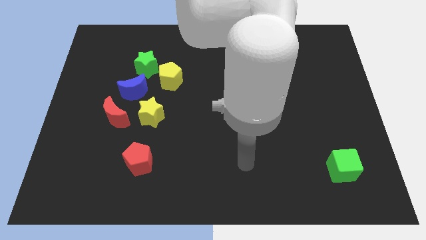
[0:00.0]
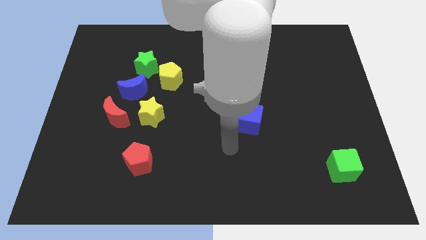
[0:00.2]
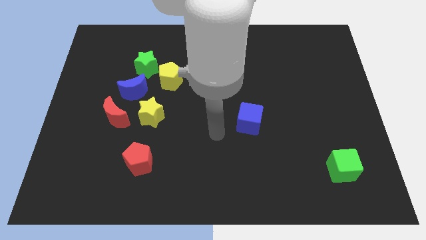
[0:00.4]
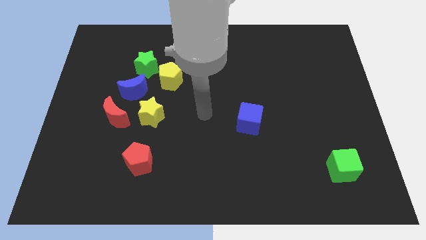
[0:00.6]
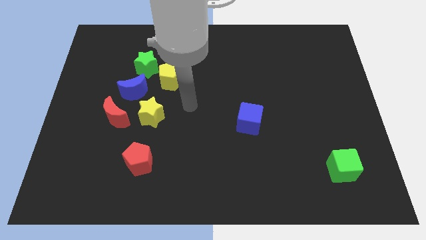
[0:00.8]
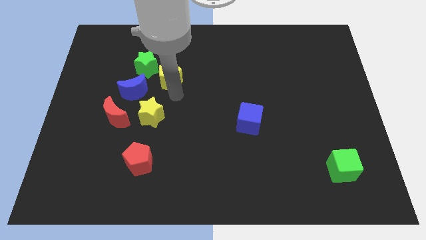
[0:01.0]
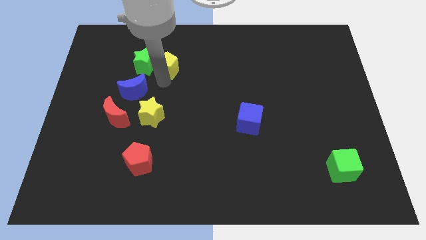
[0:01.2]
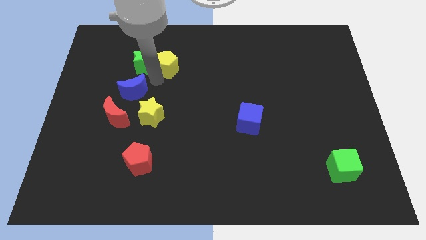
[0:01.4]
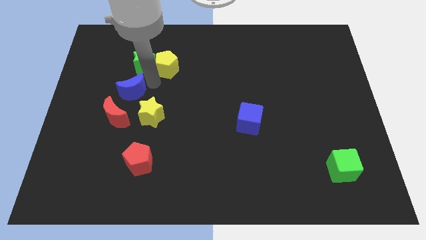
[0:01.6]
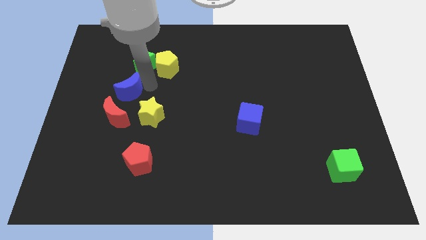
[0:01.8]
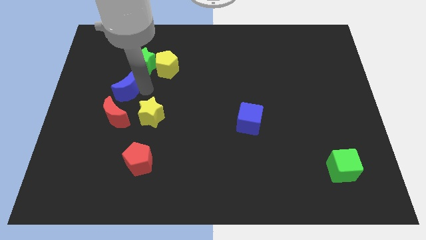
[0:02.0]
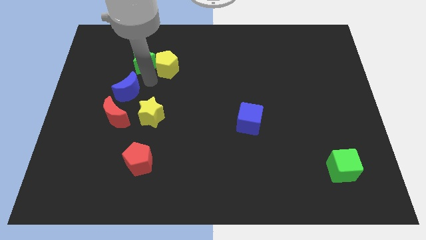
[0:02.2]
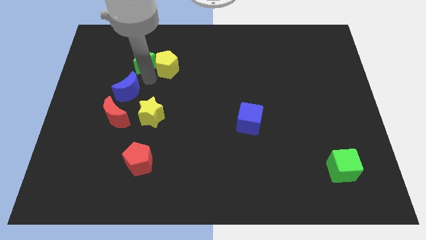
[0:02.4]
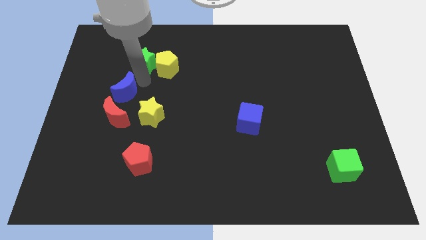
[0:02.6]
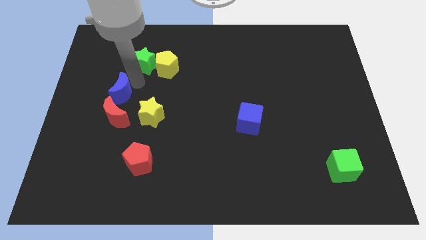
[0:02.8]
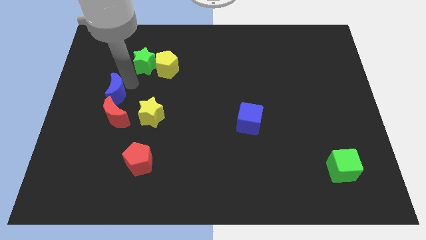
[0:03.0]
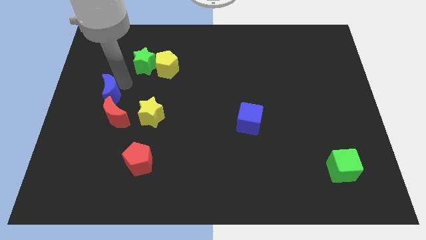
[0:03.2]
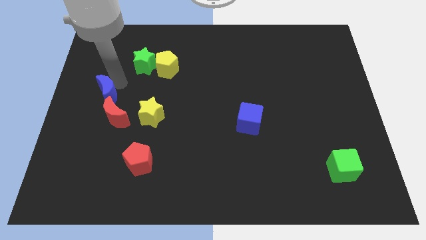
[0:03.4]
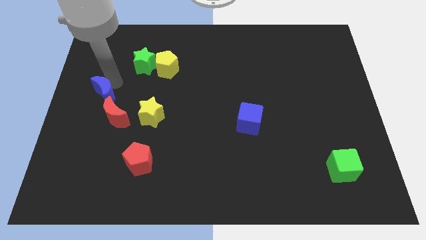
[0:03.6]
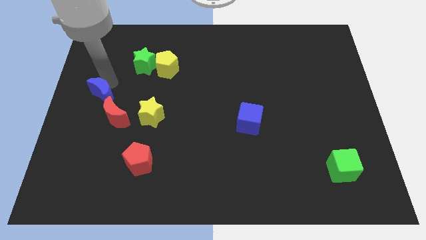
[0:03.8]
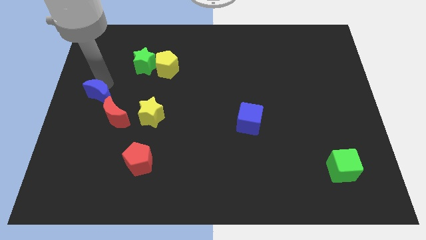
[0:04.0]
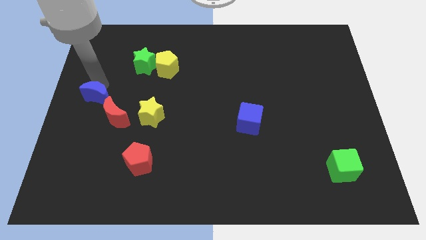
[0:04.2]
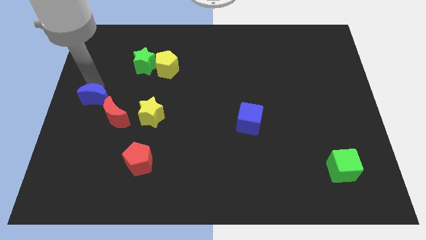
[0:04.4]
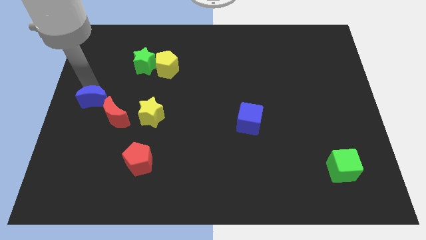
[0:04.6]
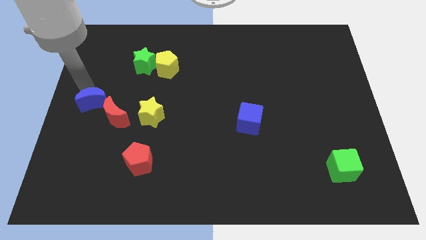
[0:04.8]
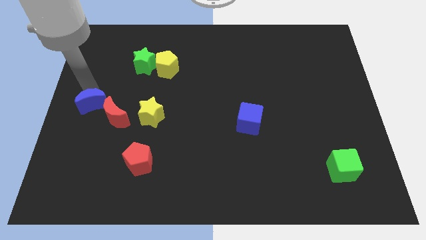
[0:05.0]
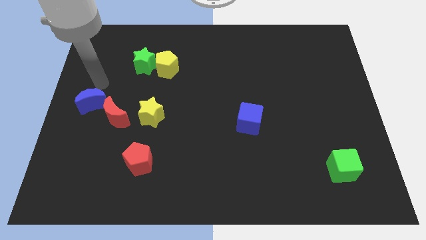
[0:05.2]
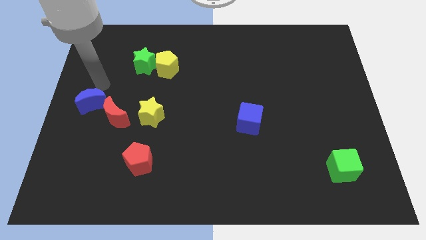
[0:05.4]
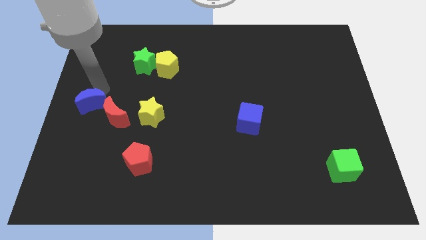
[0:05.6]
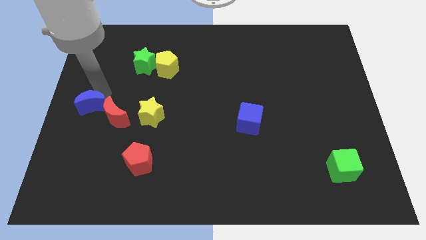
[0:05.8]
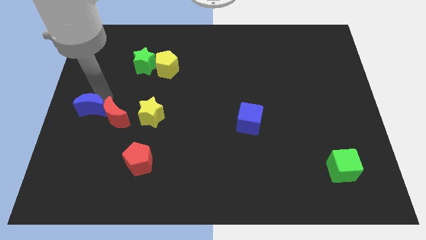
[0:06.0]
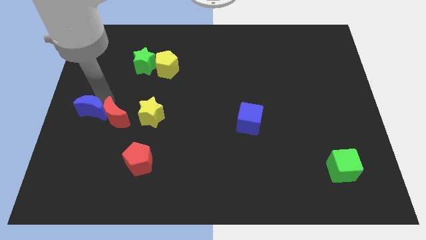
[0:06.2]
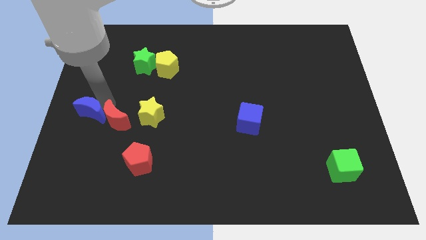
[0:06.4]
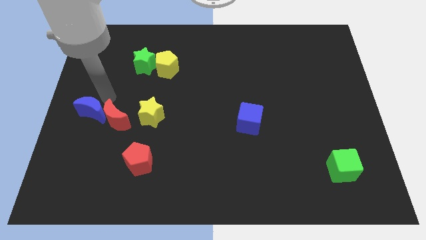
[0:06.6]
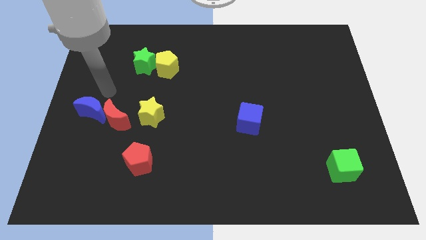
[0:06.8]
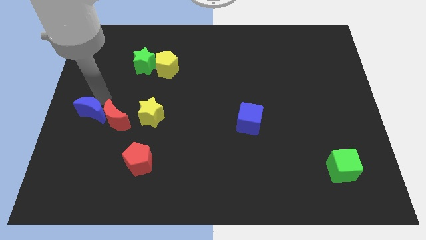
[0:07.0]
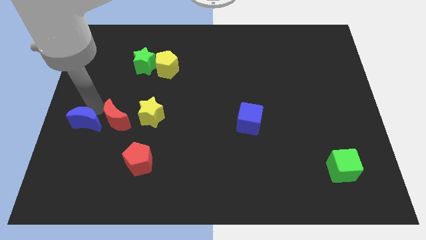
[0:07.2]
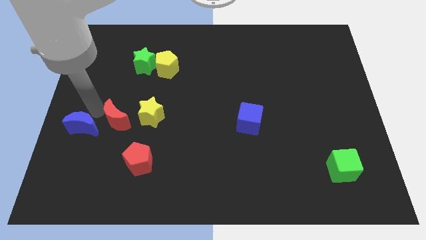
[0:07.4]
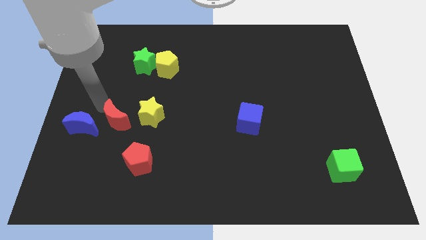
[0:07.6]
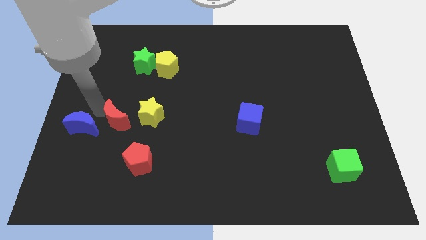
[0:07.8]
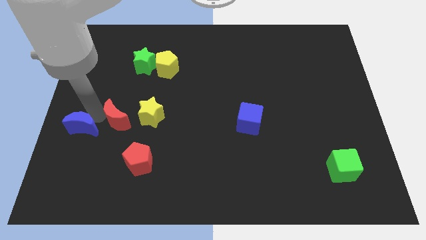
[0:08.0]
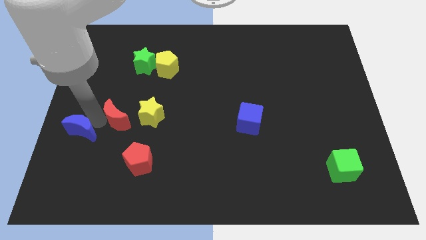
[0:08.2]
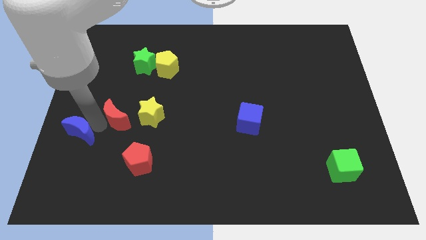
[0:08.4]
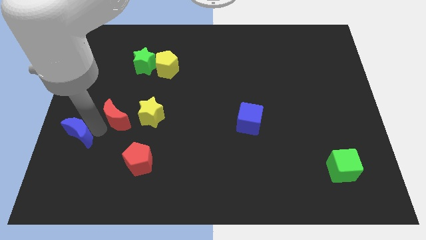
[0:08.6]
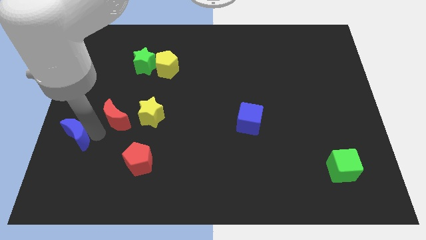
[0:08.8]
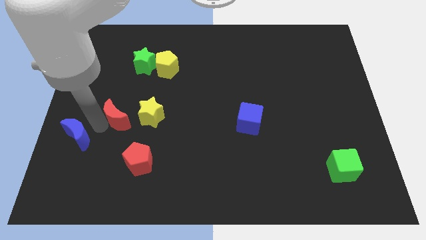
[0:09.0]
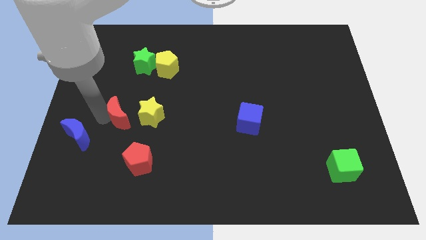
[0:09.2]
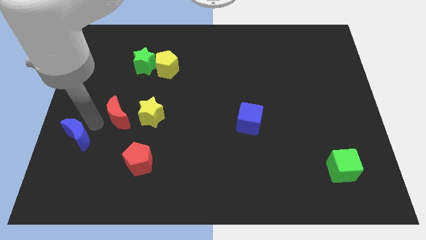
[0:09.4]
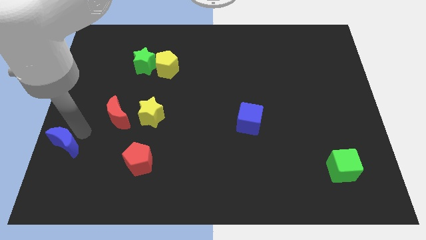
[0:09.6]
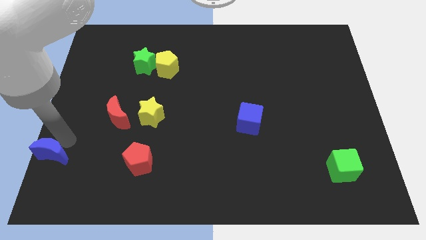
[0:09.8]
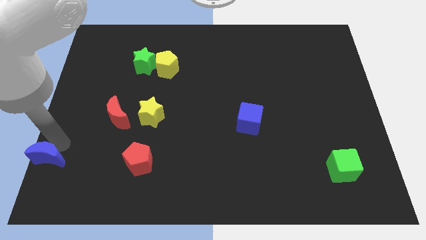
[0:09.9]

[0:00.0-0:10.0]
put the blue moon to the bottom left of the board

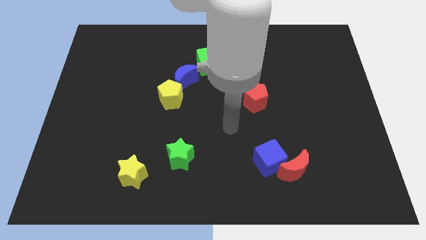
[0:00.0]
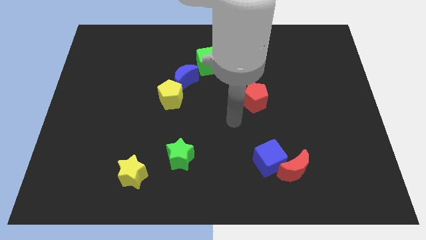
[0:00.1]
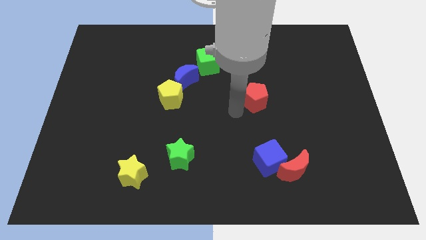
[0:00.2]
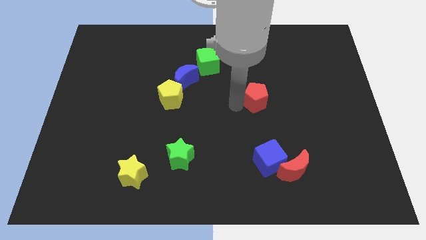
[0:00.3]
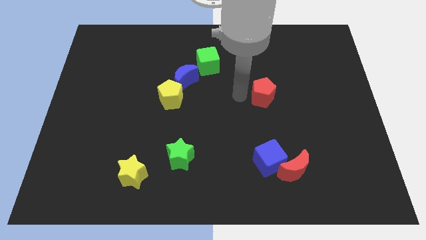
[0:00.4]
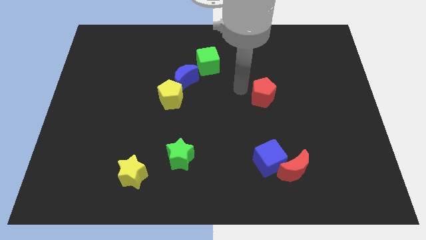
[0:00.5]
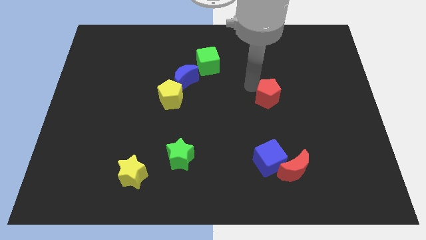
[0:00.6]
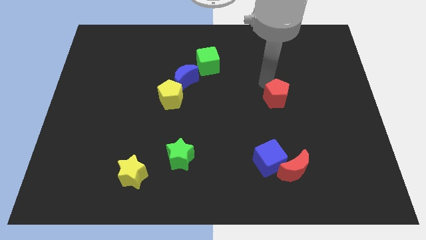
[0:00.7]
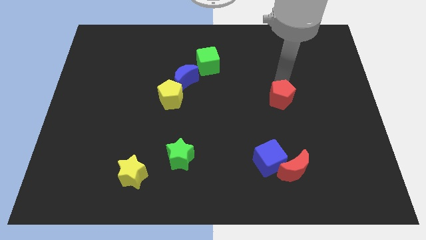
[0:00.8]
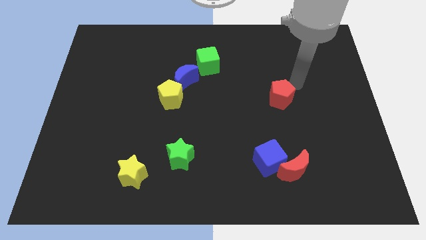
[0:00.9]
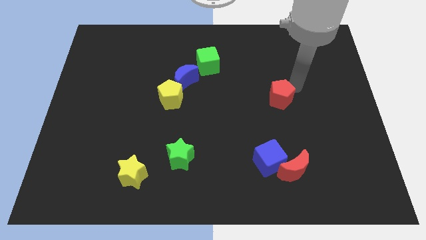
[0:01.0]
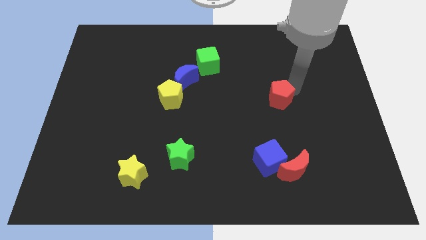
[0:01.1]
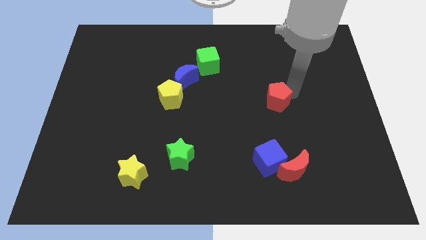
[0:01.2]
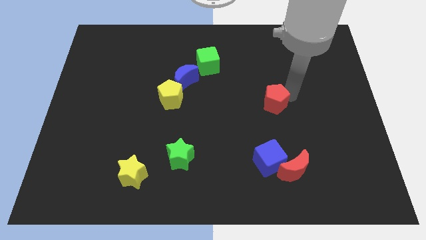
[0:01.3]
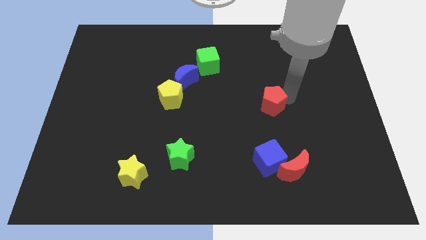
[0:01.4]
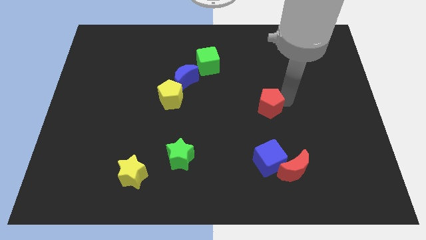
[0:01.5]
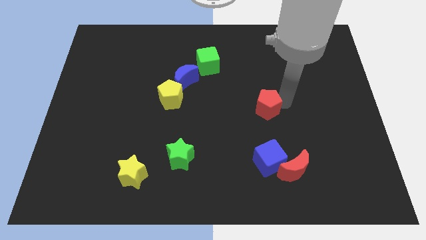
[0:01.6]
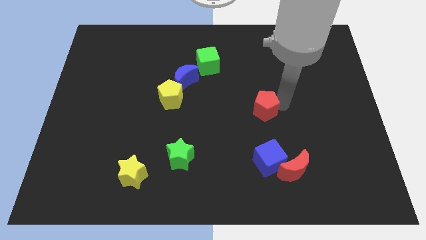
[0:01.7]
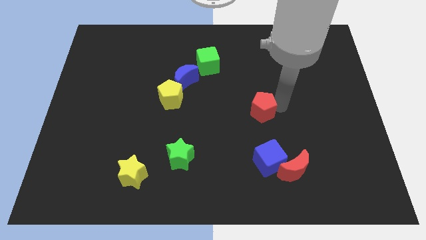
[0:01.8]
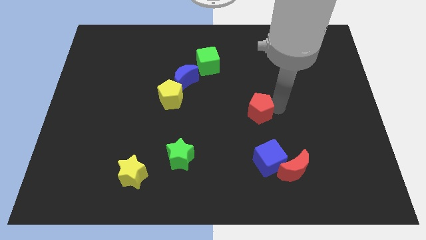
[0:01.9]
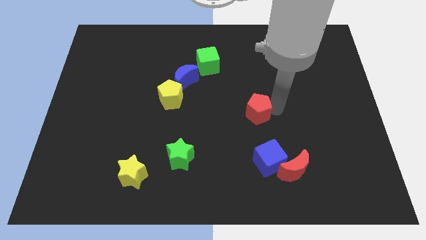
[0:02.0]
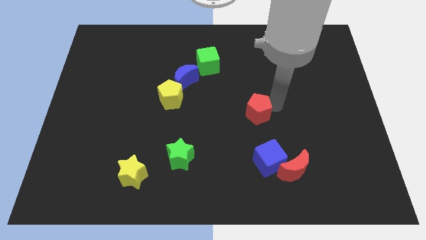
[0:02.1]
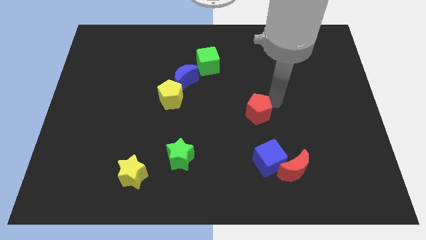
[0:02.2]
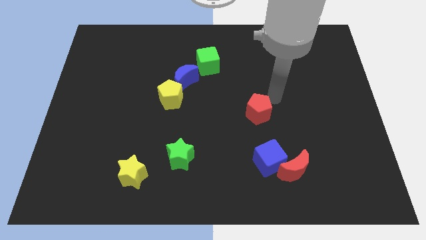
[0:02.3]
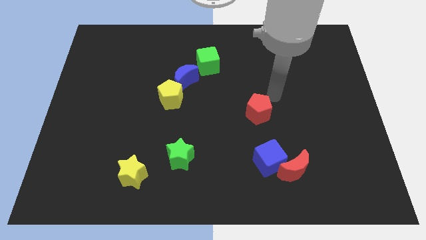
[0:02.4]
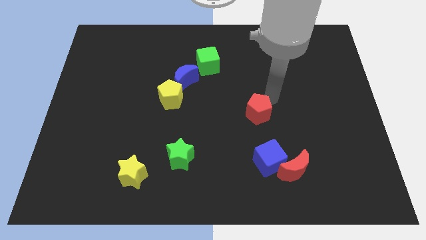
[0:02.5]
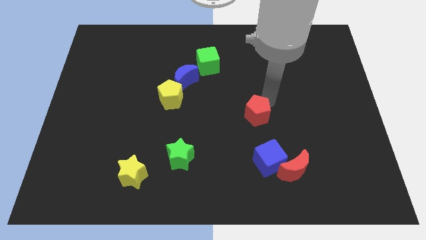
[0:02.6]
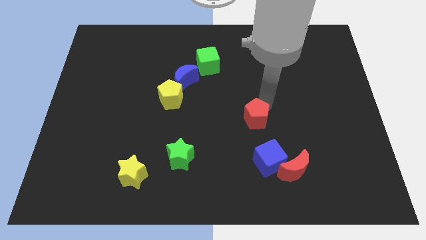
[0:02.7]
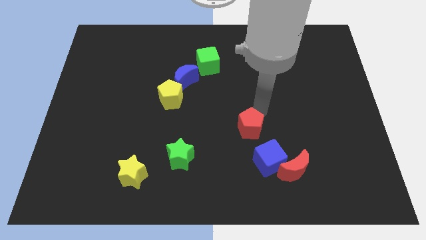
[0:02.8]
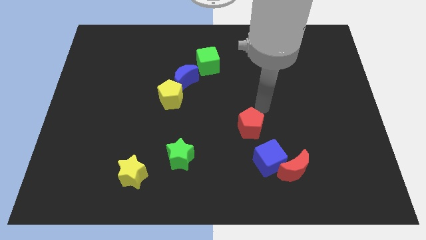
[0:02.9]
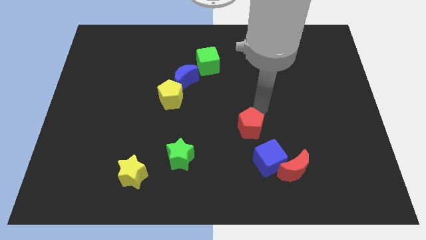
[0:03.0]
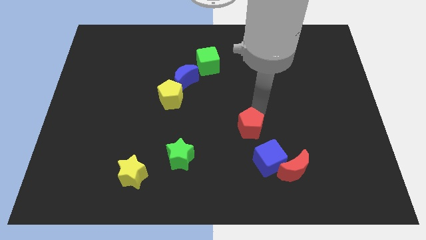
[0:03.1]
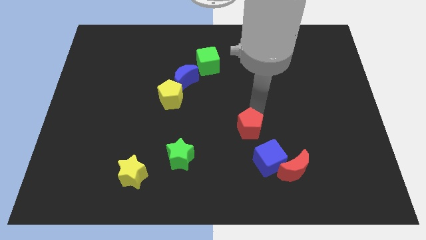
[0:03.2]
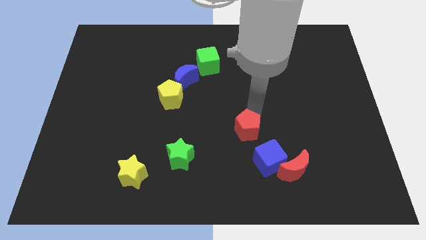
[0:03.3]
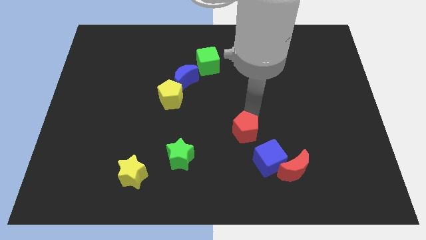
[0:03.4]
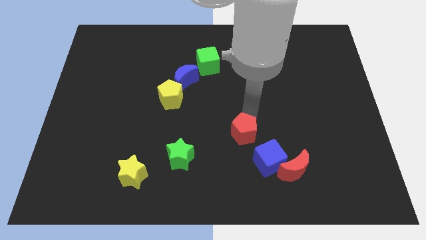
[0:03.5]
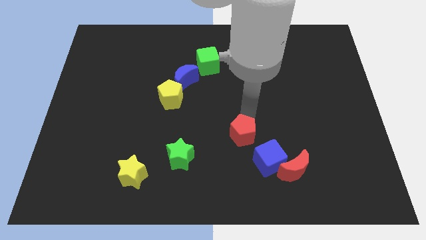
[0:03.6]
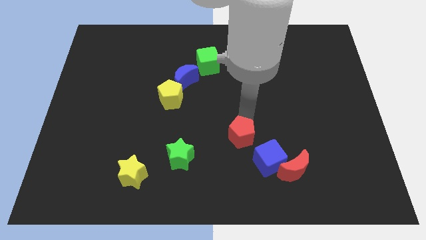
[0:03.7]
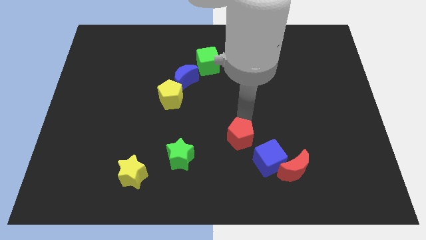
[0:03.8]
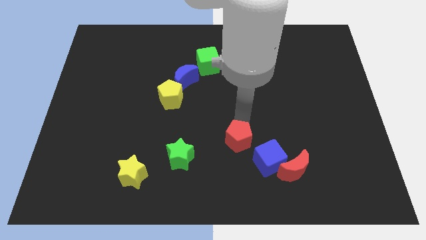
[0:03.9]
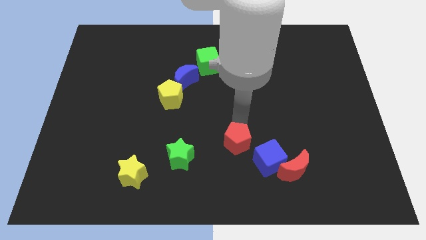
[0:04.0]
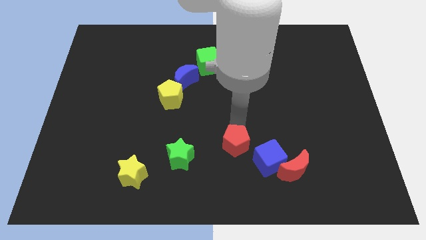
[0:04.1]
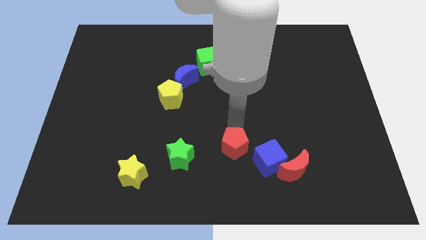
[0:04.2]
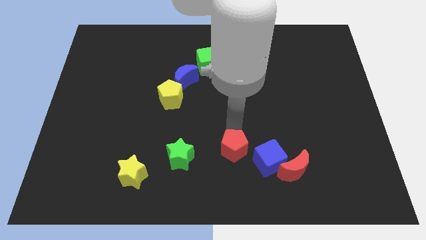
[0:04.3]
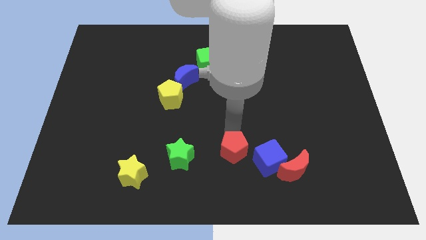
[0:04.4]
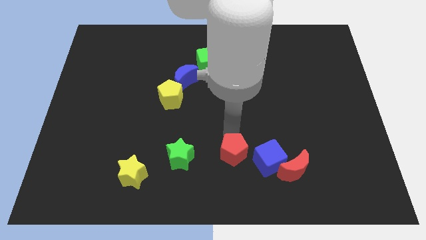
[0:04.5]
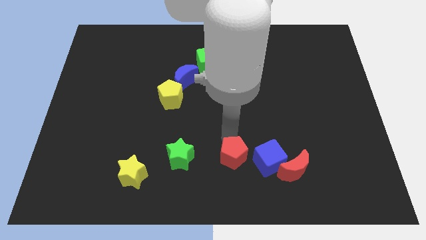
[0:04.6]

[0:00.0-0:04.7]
put the red pentagon to the bottom
